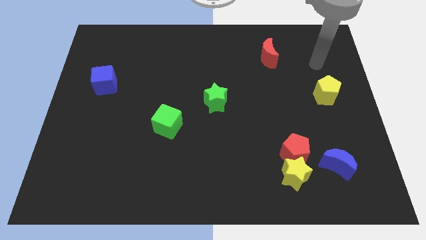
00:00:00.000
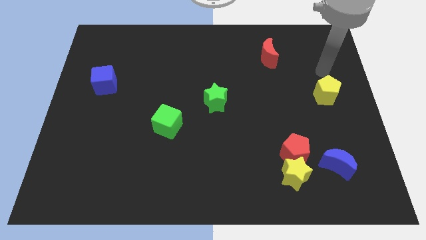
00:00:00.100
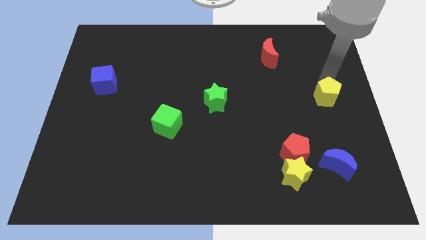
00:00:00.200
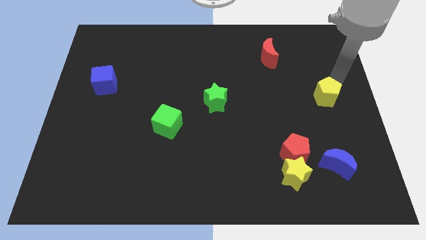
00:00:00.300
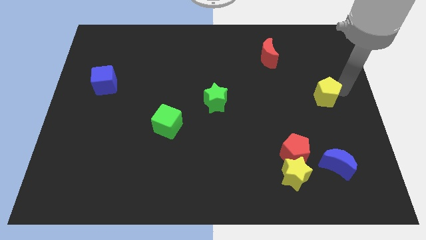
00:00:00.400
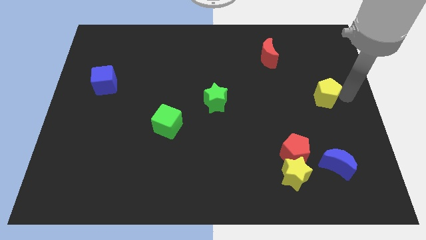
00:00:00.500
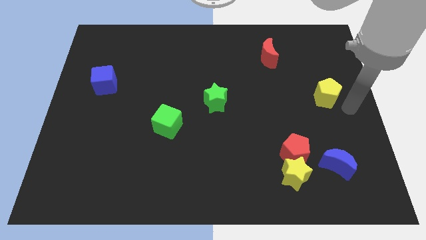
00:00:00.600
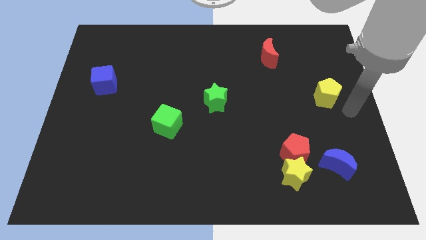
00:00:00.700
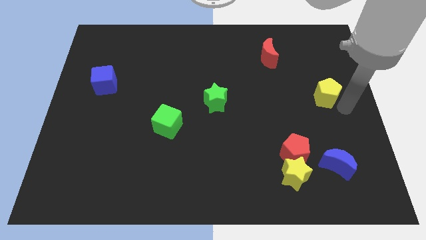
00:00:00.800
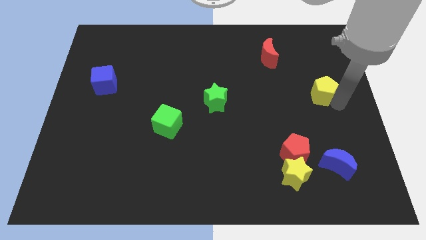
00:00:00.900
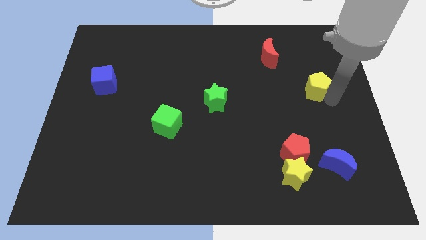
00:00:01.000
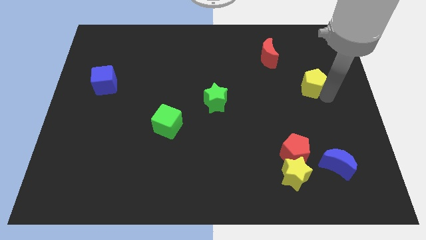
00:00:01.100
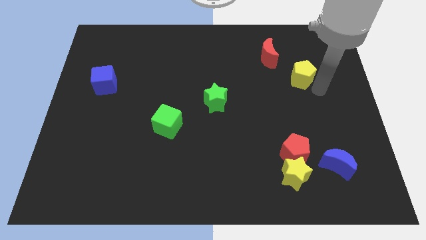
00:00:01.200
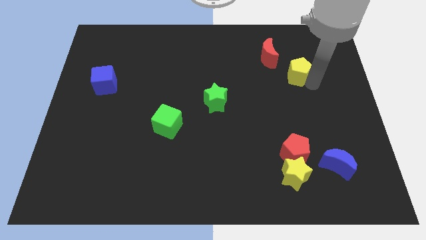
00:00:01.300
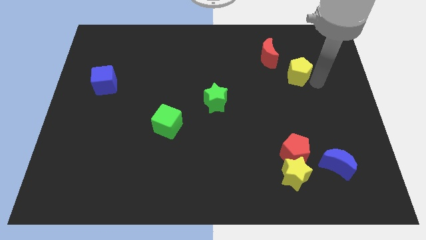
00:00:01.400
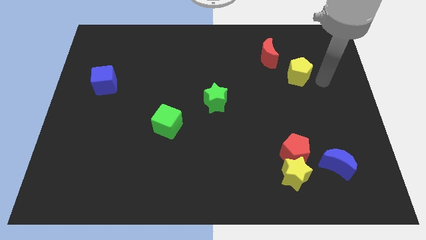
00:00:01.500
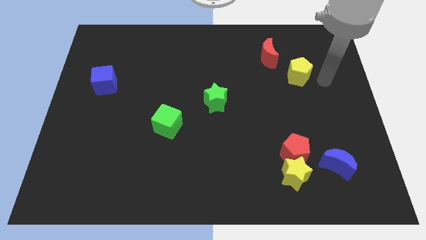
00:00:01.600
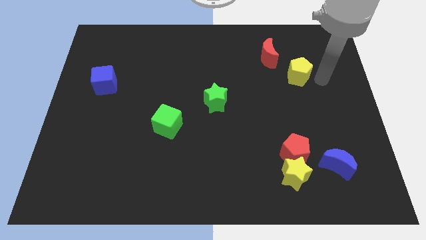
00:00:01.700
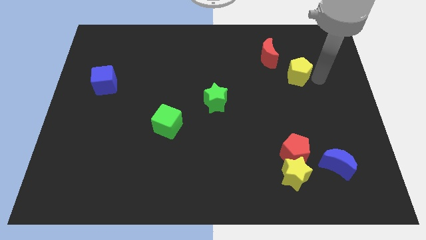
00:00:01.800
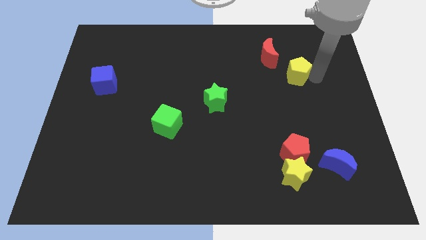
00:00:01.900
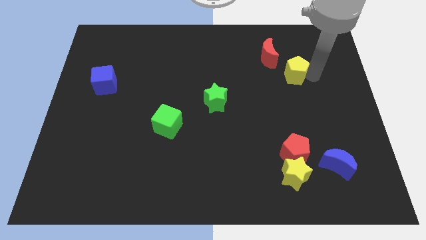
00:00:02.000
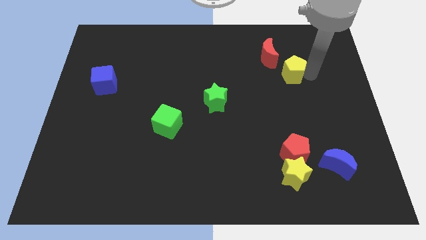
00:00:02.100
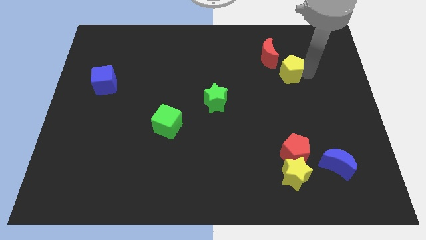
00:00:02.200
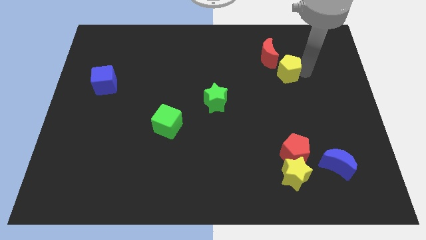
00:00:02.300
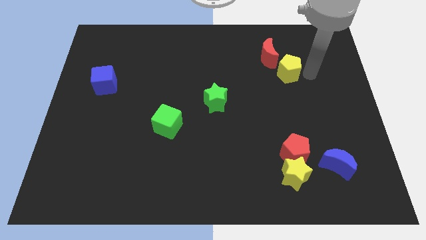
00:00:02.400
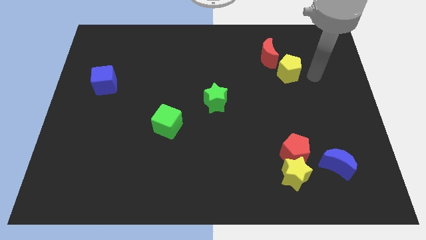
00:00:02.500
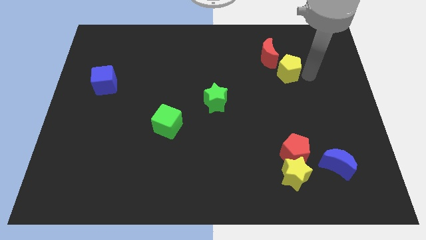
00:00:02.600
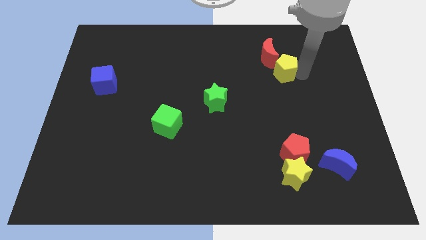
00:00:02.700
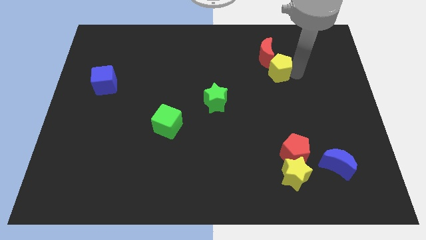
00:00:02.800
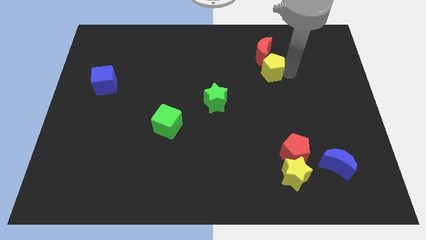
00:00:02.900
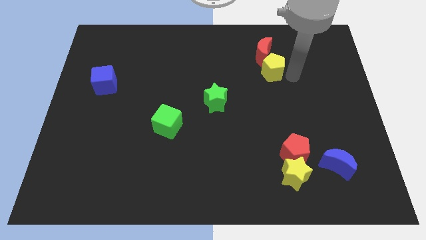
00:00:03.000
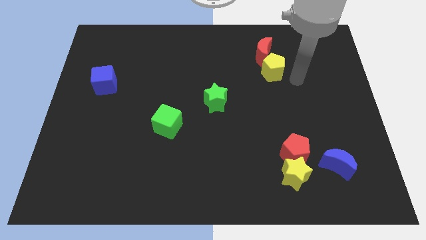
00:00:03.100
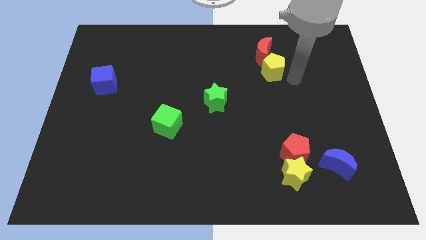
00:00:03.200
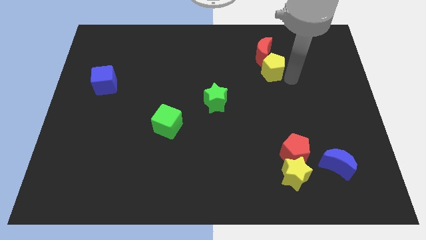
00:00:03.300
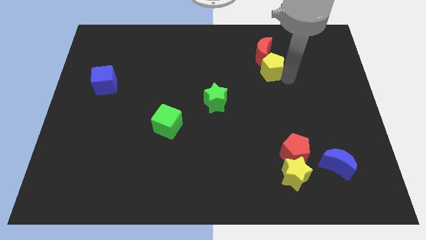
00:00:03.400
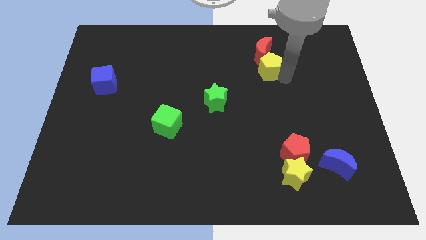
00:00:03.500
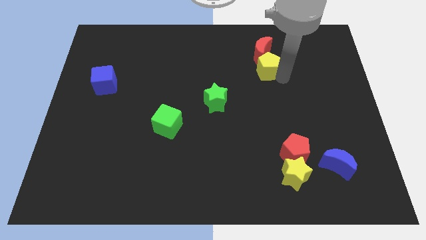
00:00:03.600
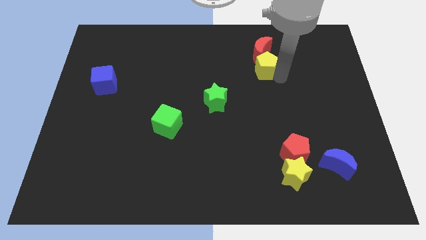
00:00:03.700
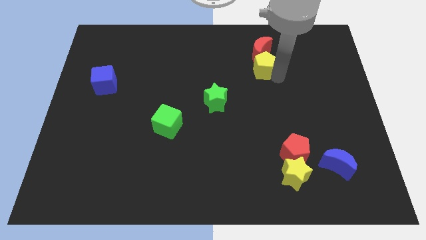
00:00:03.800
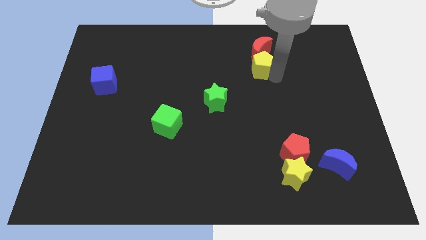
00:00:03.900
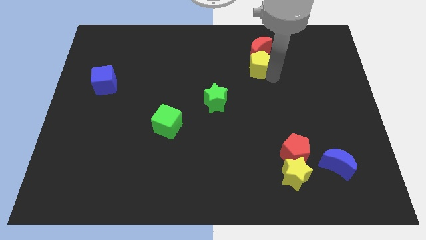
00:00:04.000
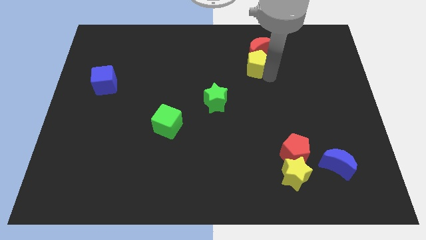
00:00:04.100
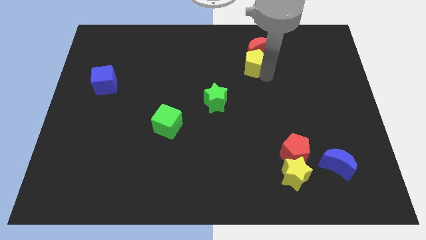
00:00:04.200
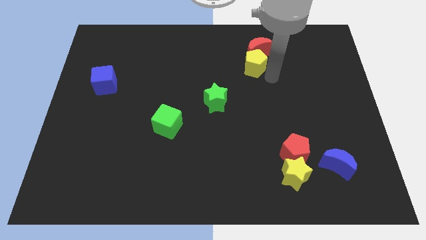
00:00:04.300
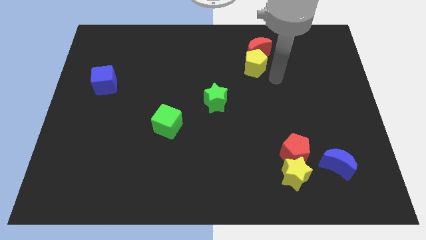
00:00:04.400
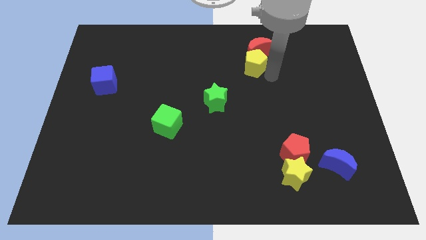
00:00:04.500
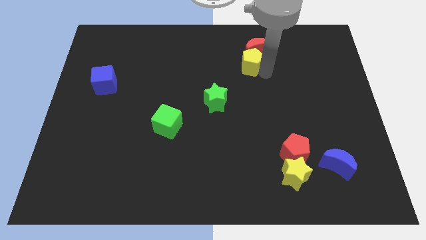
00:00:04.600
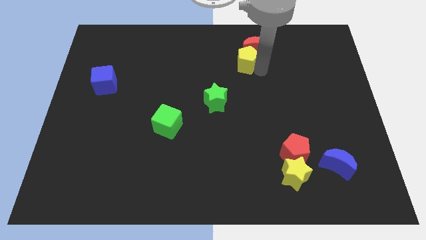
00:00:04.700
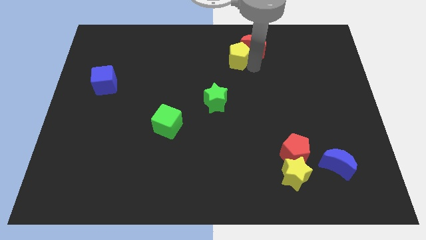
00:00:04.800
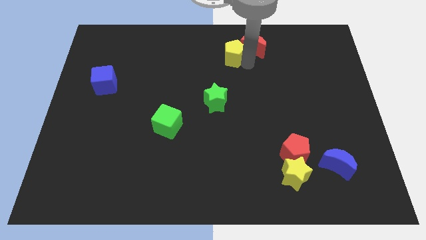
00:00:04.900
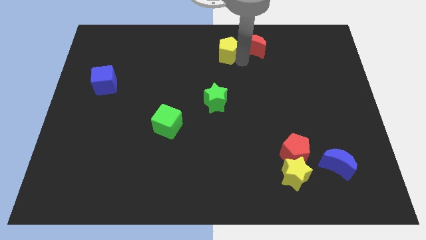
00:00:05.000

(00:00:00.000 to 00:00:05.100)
push the yellow pentagon to the towards your base

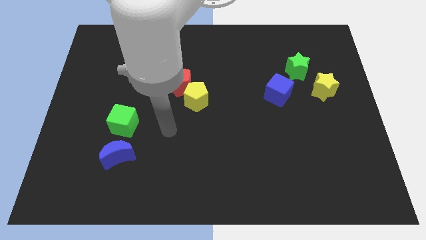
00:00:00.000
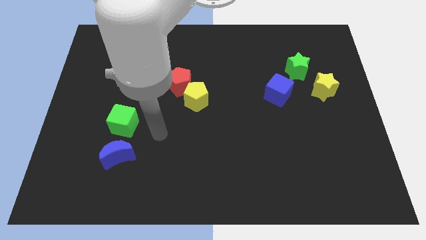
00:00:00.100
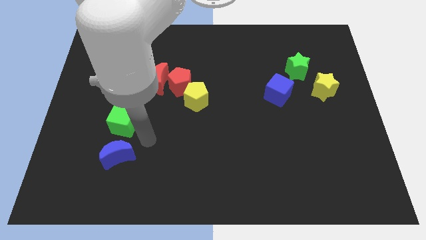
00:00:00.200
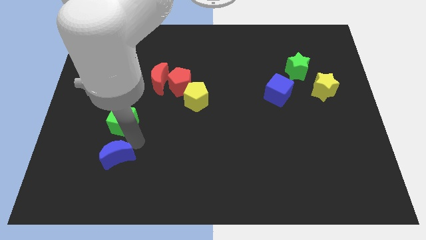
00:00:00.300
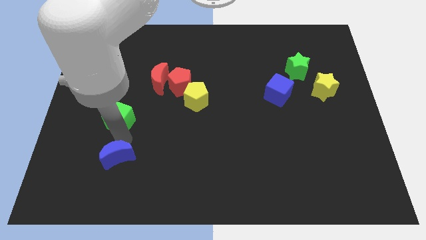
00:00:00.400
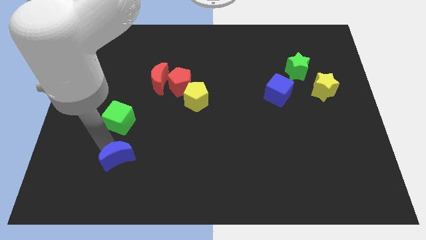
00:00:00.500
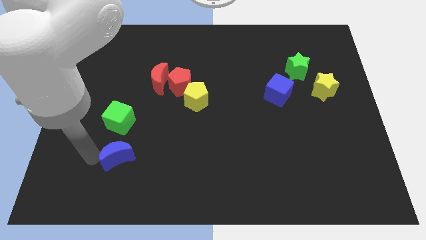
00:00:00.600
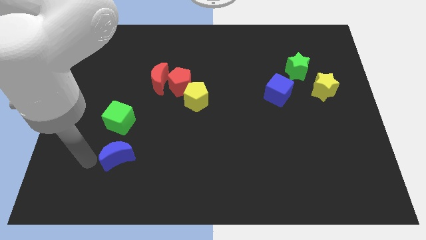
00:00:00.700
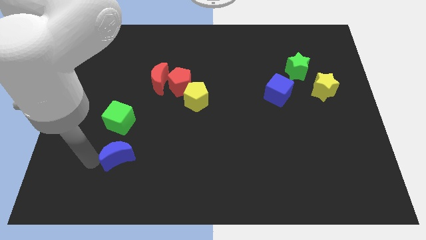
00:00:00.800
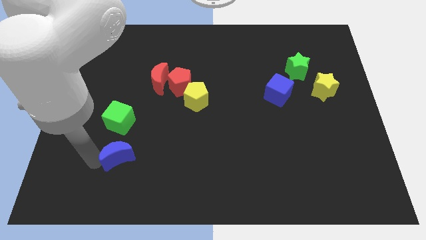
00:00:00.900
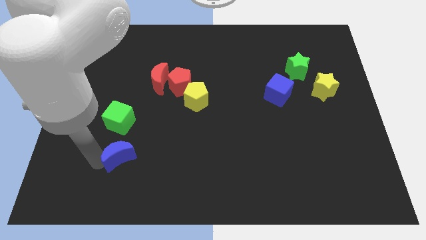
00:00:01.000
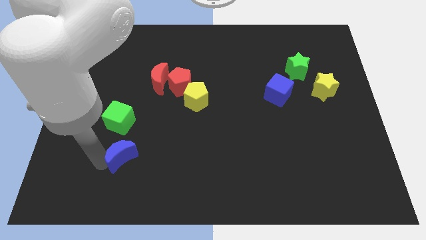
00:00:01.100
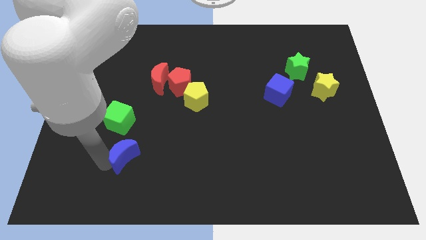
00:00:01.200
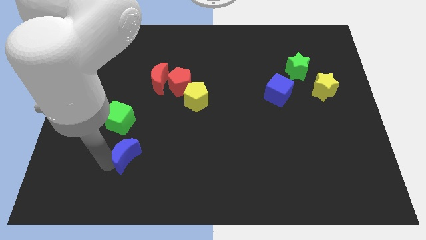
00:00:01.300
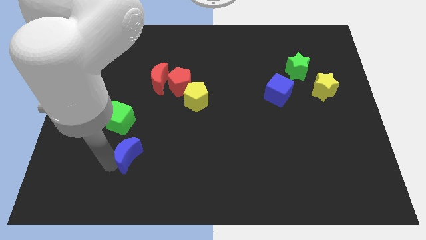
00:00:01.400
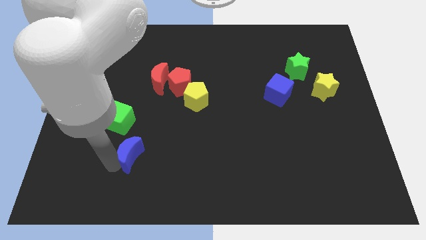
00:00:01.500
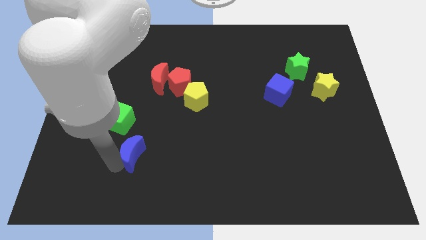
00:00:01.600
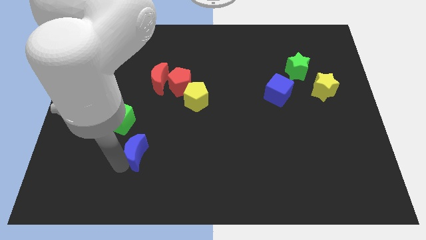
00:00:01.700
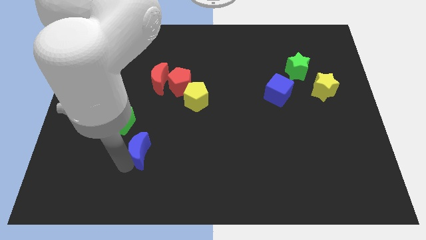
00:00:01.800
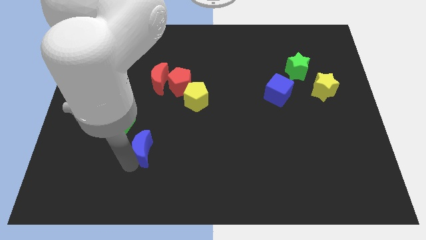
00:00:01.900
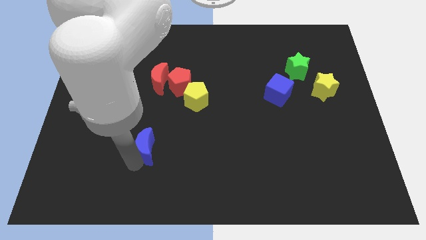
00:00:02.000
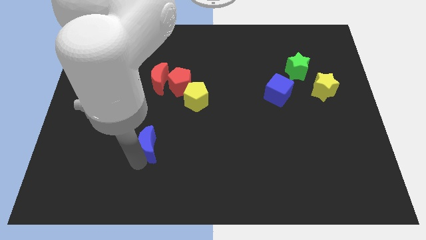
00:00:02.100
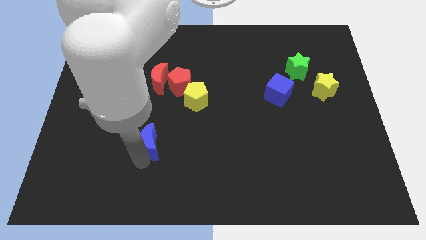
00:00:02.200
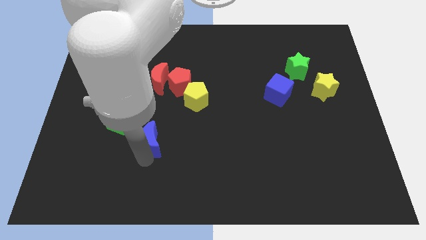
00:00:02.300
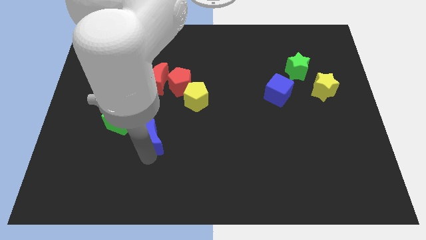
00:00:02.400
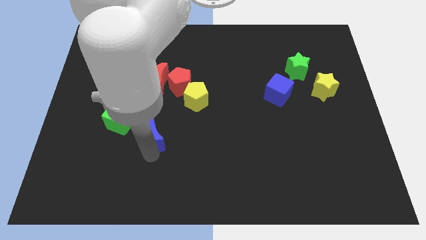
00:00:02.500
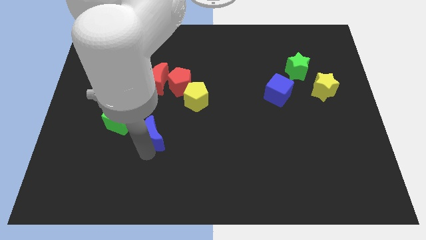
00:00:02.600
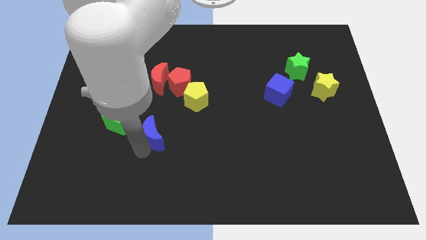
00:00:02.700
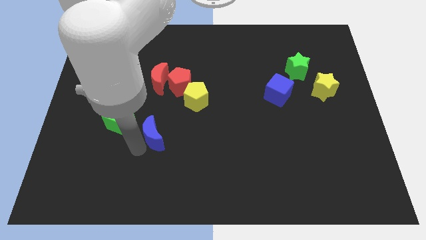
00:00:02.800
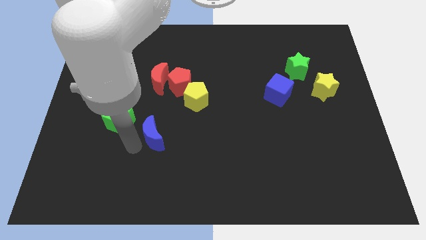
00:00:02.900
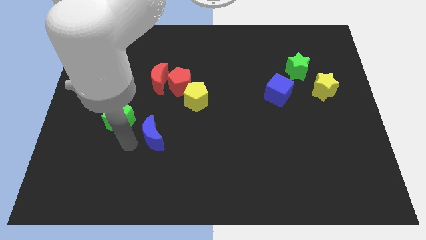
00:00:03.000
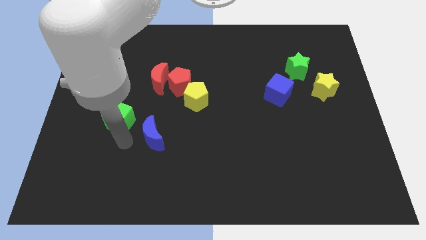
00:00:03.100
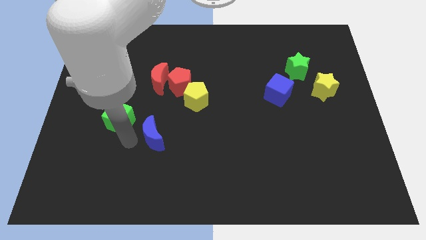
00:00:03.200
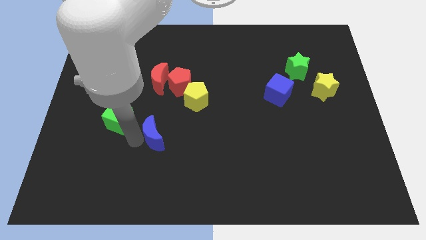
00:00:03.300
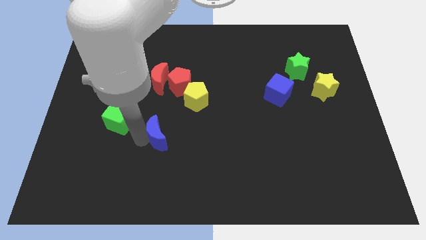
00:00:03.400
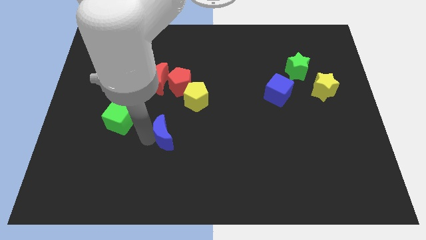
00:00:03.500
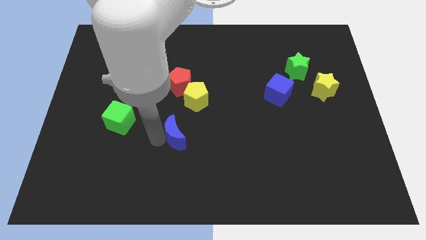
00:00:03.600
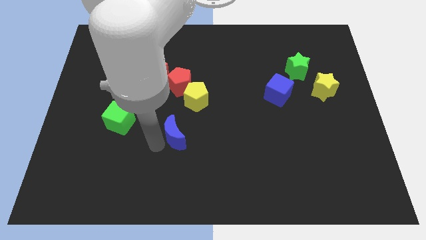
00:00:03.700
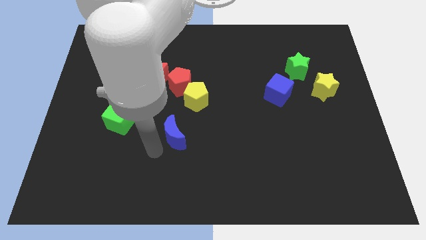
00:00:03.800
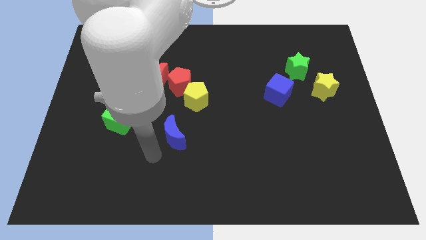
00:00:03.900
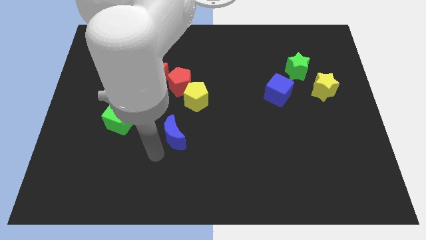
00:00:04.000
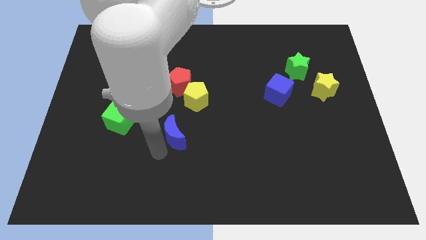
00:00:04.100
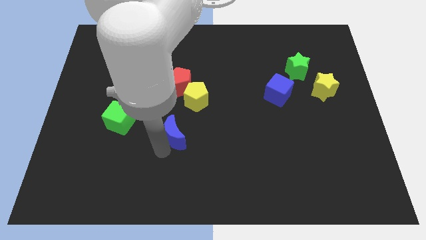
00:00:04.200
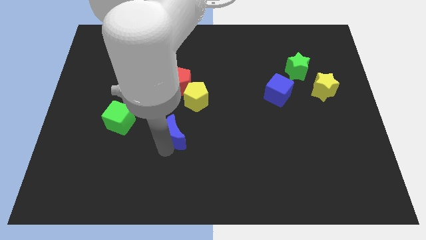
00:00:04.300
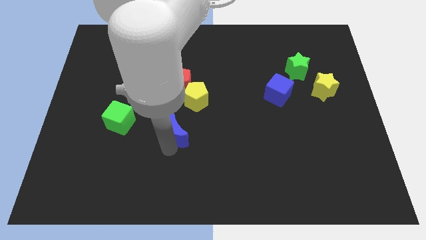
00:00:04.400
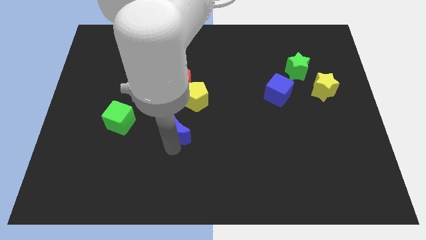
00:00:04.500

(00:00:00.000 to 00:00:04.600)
slide the blue moon to the center of the board
